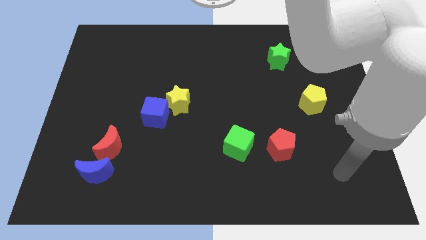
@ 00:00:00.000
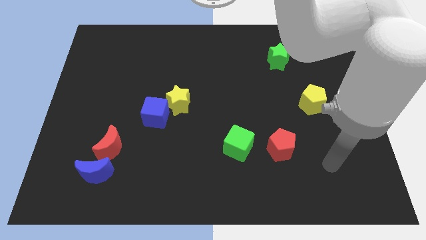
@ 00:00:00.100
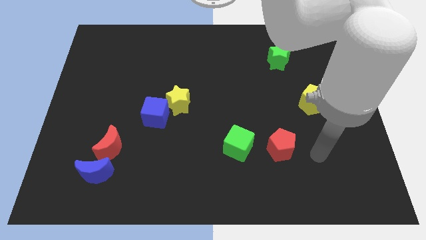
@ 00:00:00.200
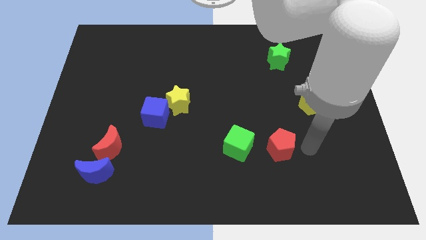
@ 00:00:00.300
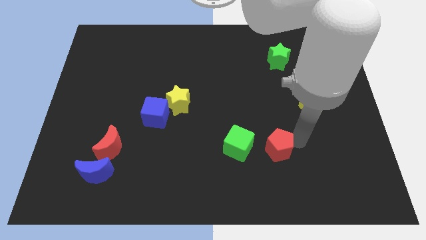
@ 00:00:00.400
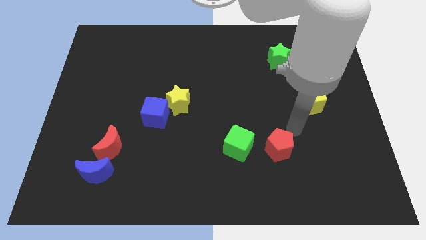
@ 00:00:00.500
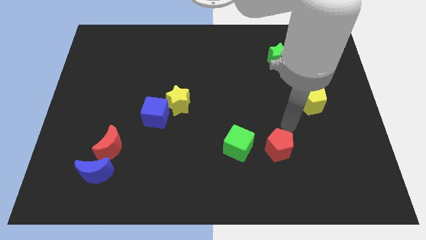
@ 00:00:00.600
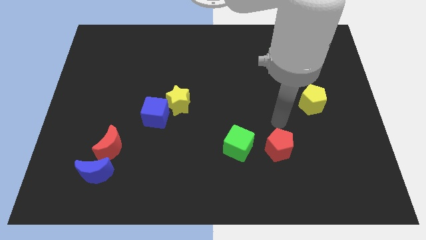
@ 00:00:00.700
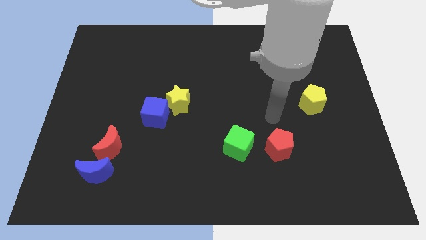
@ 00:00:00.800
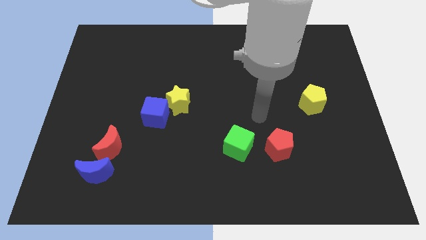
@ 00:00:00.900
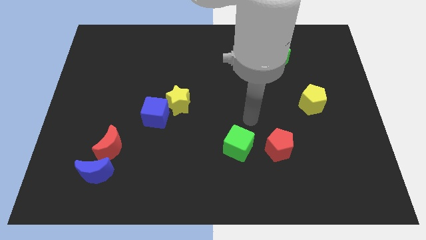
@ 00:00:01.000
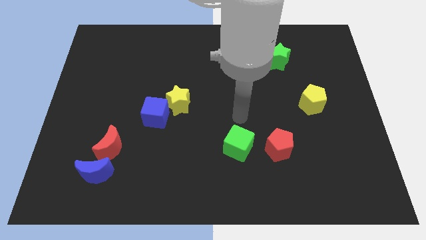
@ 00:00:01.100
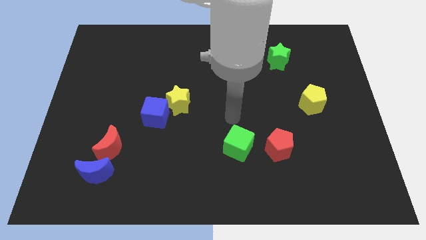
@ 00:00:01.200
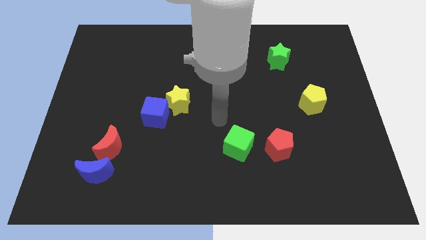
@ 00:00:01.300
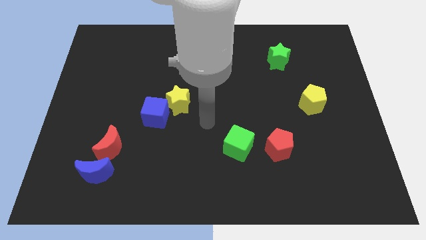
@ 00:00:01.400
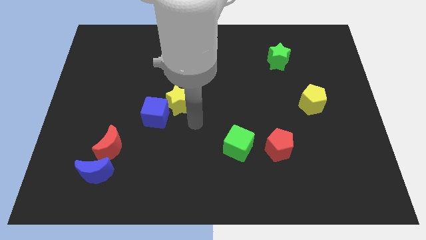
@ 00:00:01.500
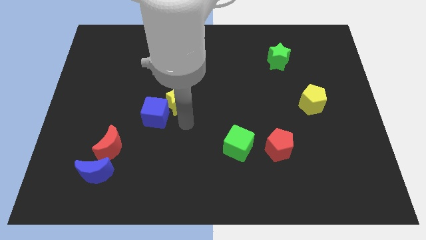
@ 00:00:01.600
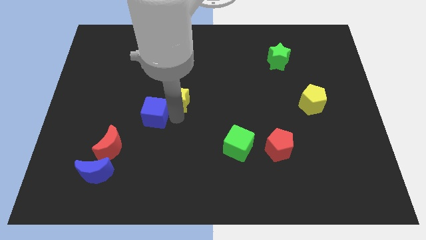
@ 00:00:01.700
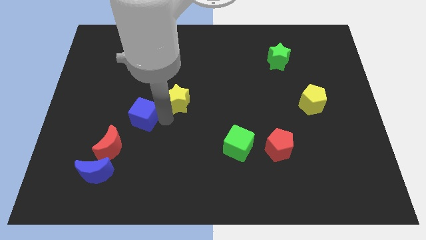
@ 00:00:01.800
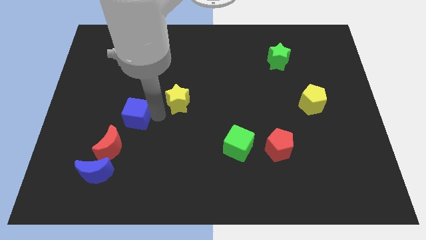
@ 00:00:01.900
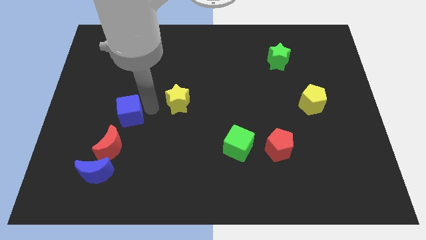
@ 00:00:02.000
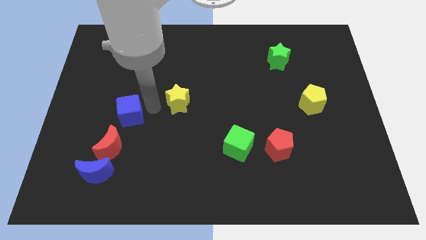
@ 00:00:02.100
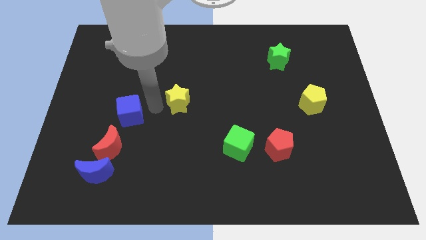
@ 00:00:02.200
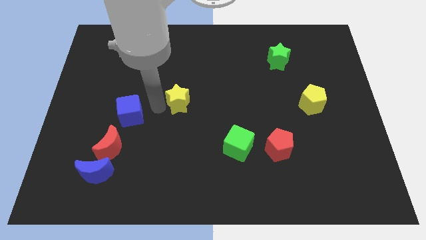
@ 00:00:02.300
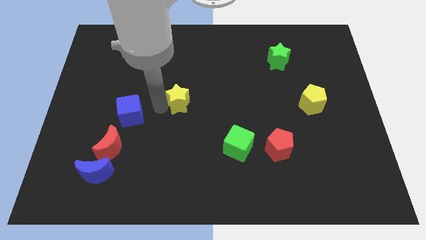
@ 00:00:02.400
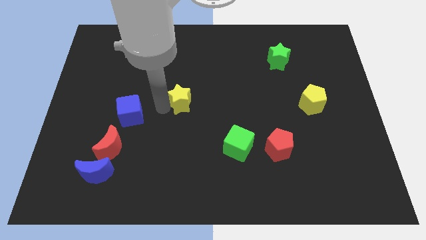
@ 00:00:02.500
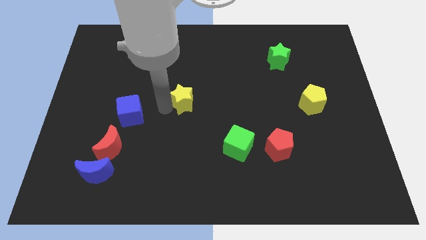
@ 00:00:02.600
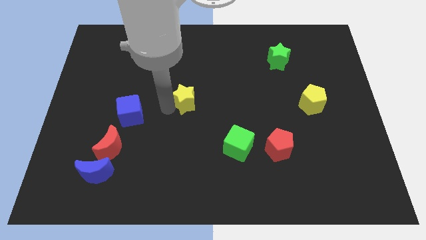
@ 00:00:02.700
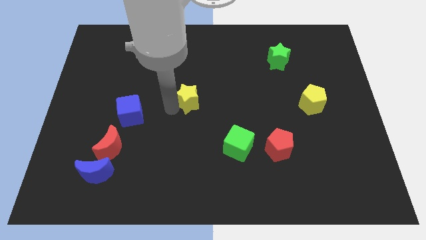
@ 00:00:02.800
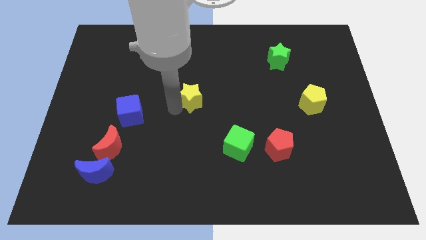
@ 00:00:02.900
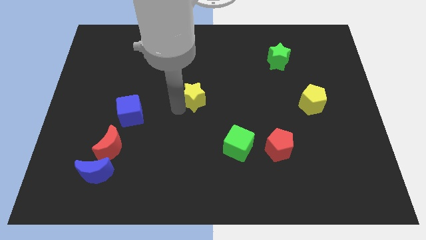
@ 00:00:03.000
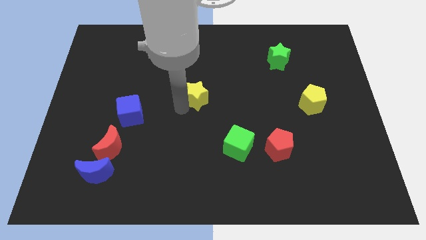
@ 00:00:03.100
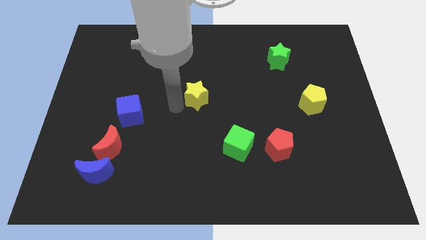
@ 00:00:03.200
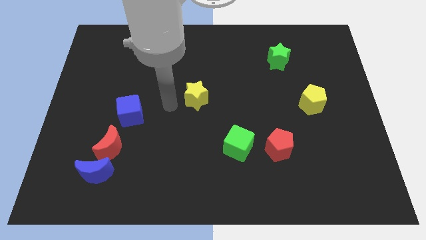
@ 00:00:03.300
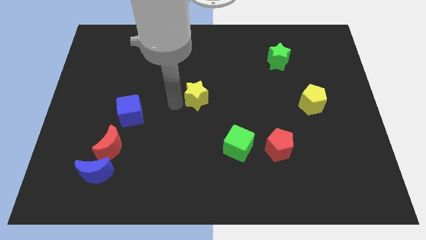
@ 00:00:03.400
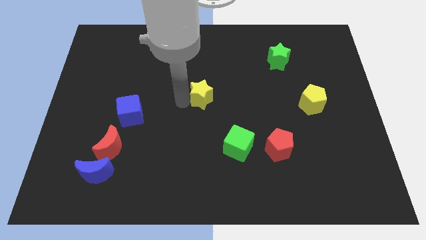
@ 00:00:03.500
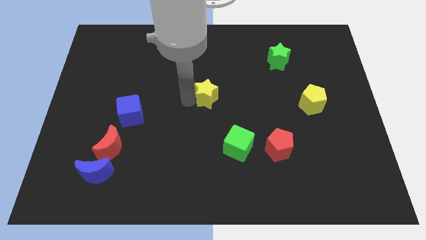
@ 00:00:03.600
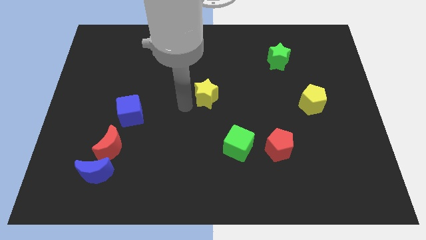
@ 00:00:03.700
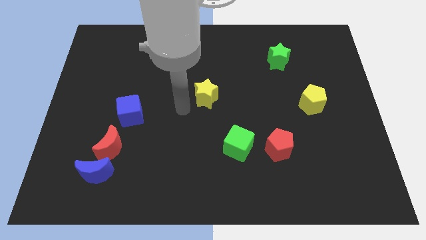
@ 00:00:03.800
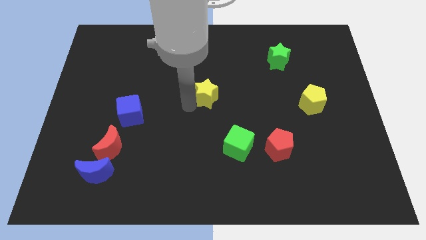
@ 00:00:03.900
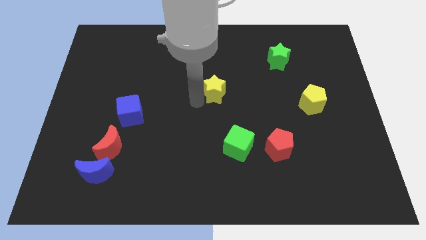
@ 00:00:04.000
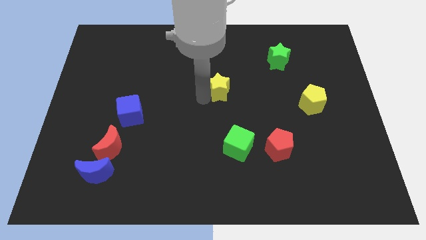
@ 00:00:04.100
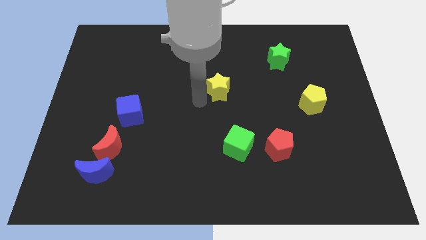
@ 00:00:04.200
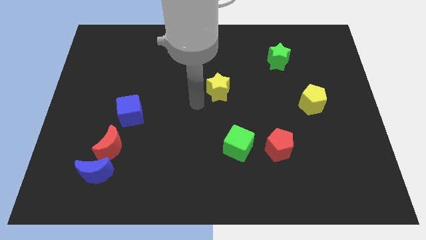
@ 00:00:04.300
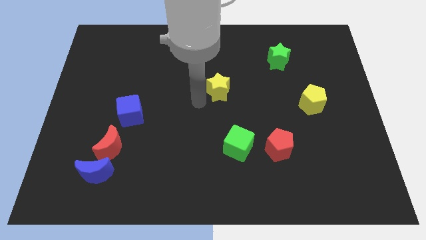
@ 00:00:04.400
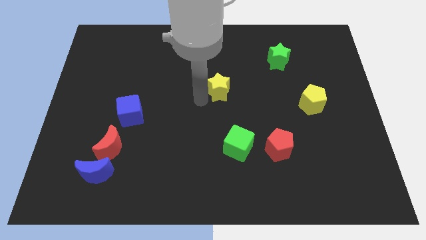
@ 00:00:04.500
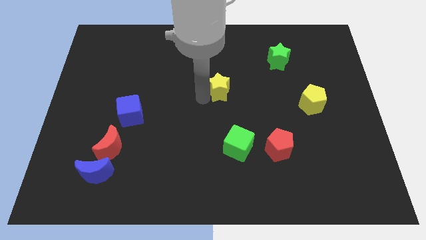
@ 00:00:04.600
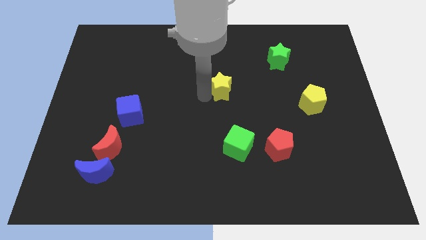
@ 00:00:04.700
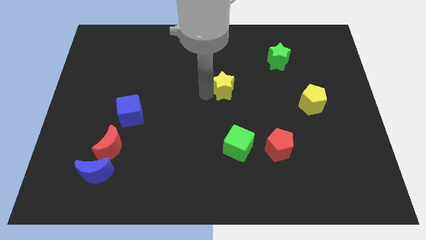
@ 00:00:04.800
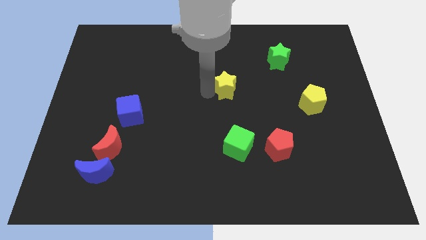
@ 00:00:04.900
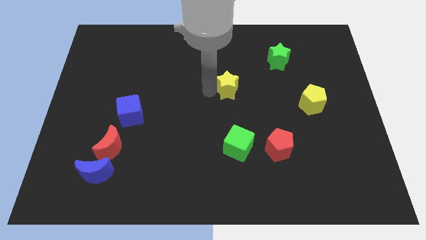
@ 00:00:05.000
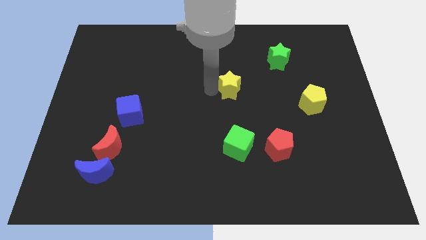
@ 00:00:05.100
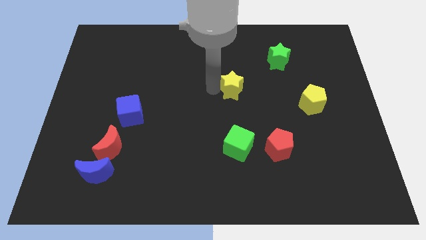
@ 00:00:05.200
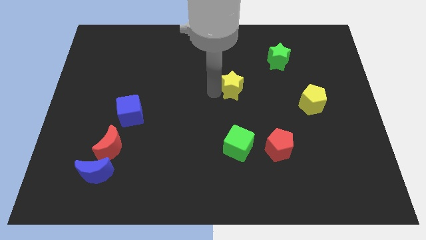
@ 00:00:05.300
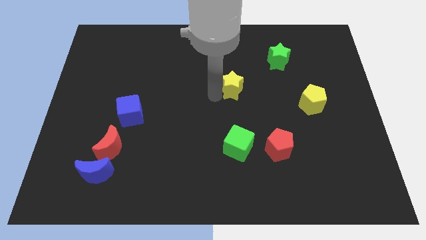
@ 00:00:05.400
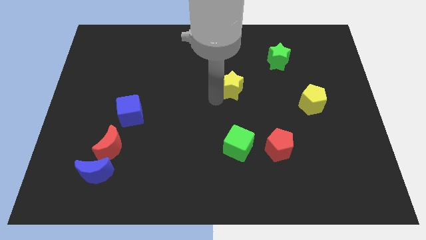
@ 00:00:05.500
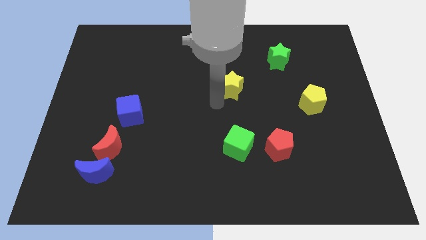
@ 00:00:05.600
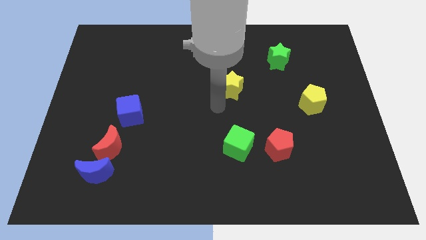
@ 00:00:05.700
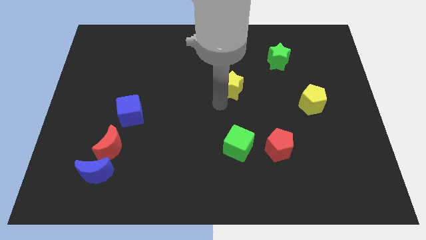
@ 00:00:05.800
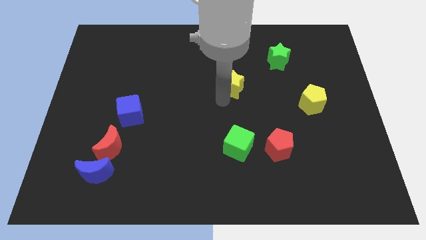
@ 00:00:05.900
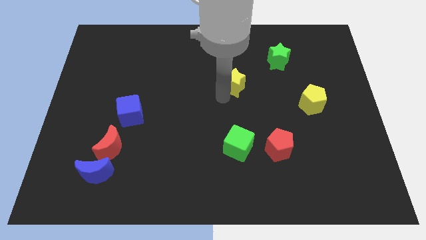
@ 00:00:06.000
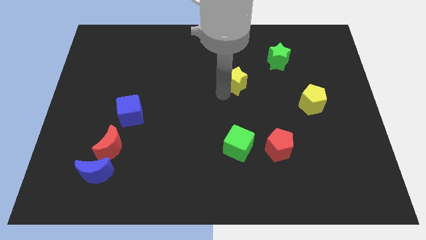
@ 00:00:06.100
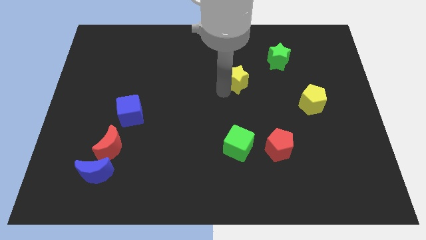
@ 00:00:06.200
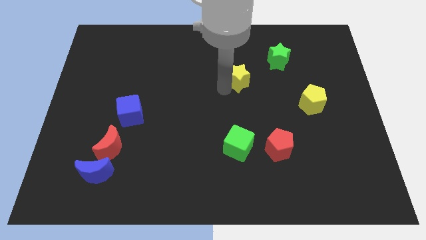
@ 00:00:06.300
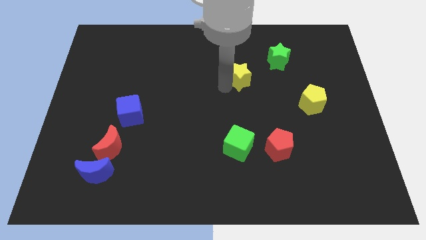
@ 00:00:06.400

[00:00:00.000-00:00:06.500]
slide the yellow star to the bottom left side of the green star

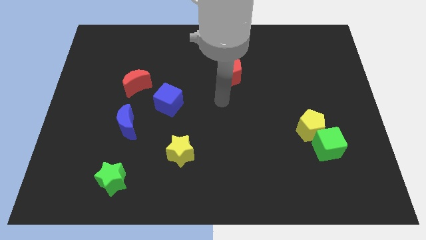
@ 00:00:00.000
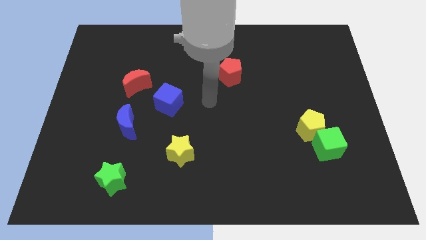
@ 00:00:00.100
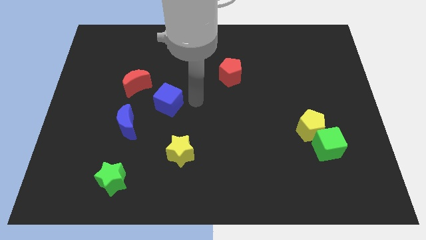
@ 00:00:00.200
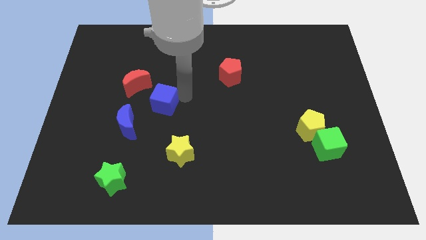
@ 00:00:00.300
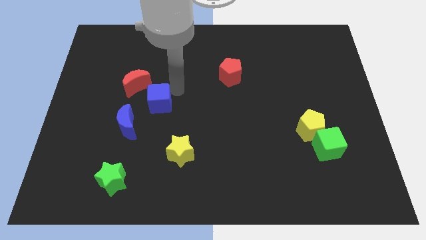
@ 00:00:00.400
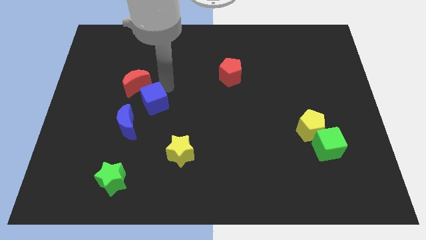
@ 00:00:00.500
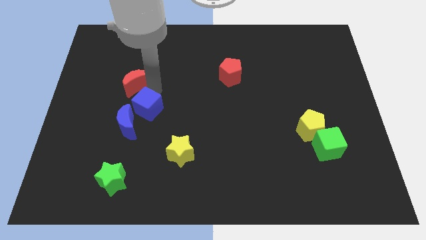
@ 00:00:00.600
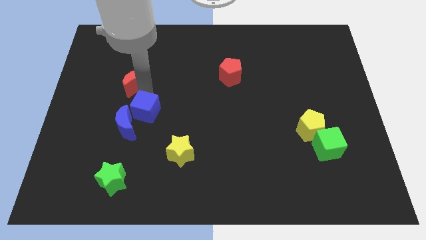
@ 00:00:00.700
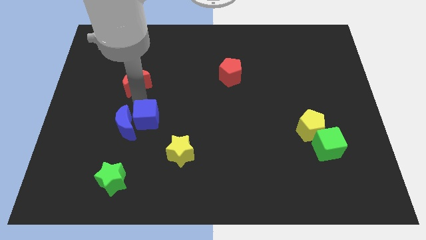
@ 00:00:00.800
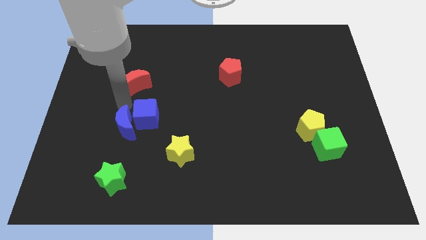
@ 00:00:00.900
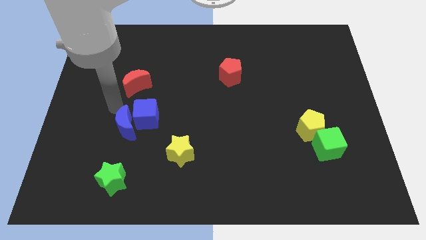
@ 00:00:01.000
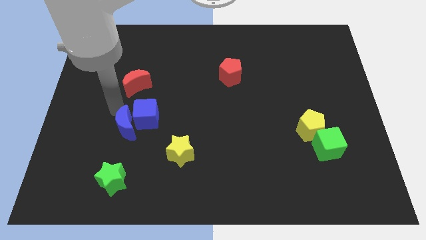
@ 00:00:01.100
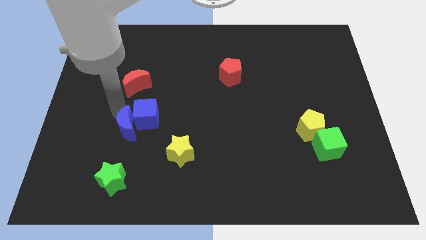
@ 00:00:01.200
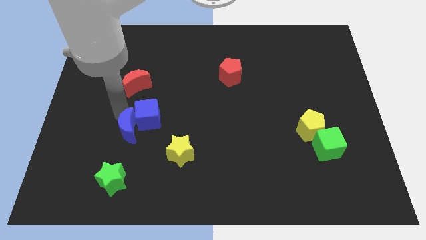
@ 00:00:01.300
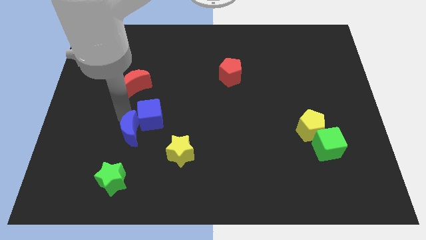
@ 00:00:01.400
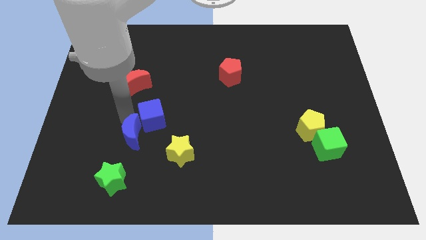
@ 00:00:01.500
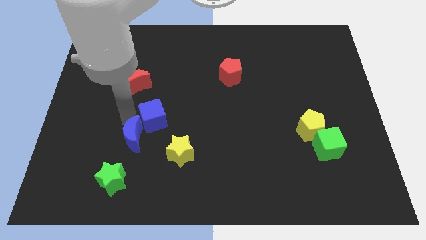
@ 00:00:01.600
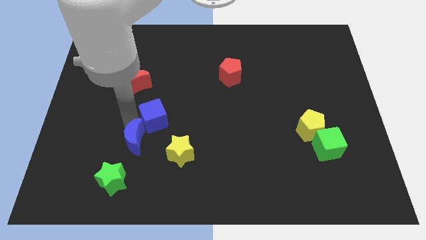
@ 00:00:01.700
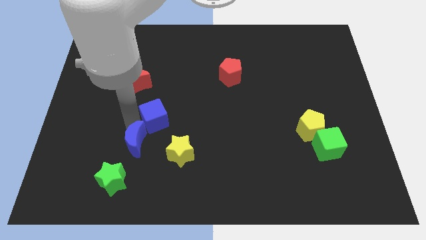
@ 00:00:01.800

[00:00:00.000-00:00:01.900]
push the blue moon to the top right of the green star
